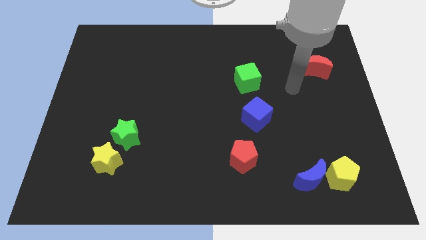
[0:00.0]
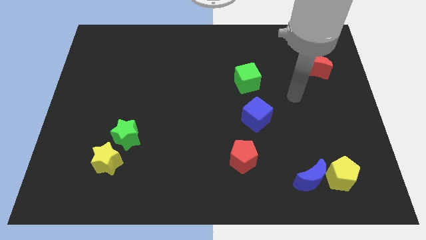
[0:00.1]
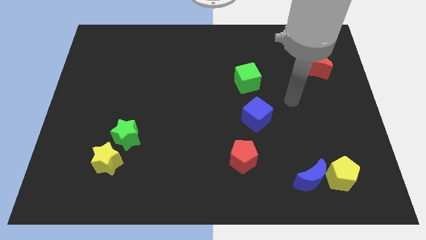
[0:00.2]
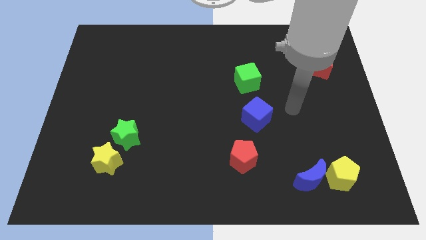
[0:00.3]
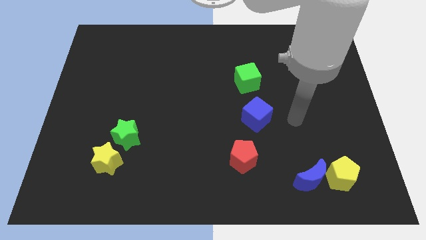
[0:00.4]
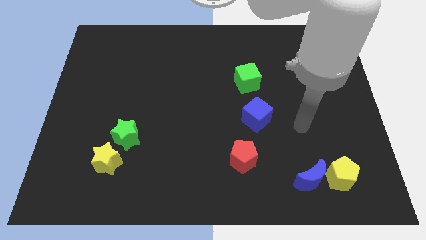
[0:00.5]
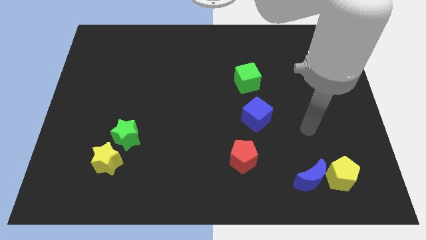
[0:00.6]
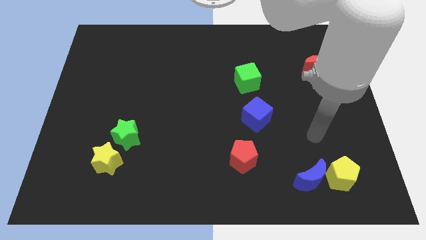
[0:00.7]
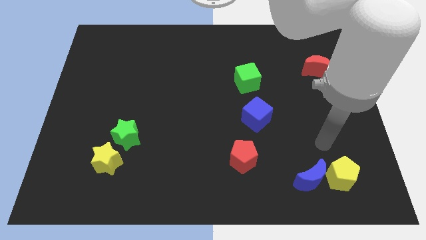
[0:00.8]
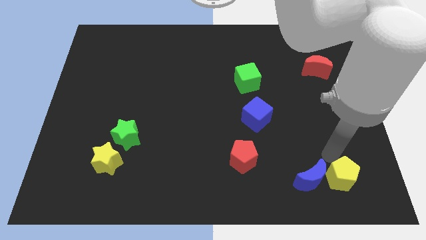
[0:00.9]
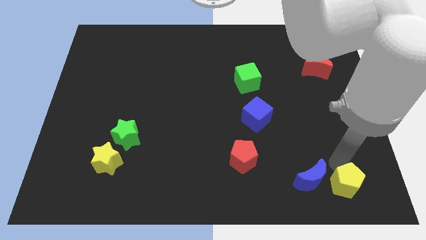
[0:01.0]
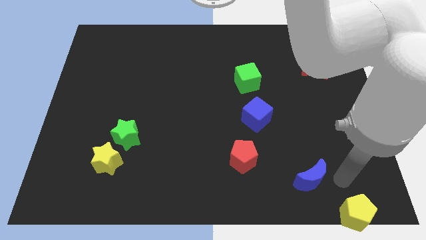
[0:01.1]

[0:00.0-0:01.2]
pull the blue moon apart from the yellow pentagon

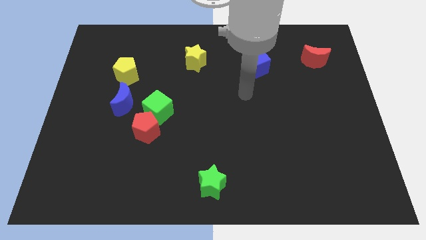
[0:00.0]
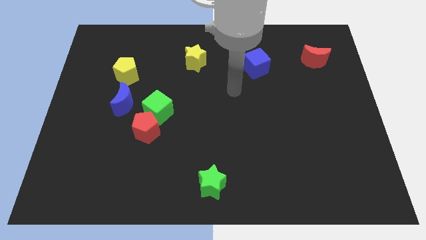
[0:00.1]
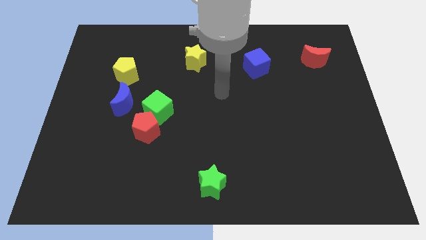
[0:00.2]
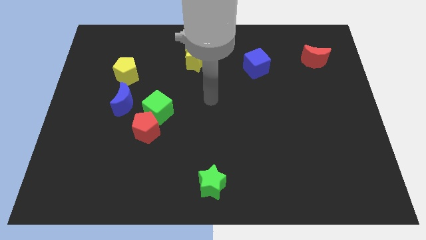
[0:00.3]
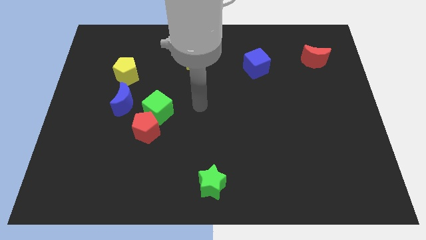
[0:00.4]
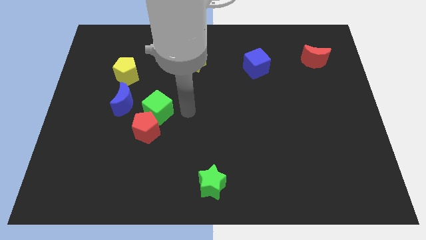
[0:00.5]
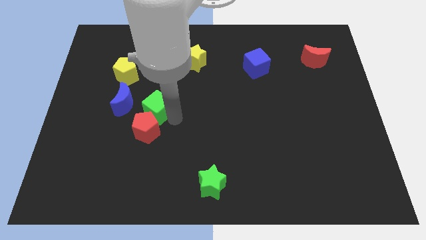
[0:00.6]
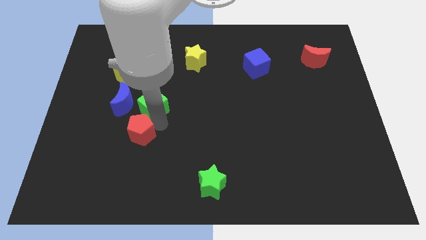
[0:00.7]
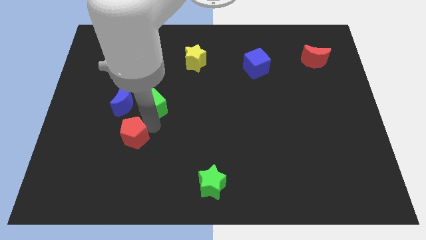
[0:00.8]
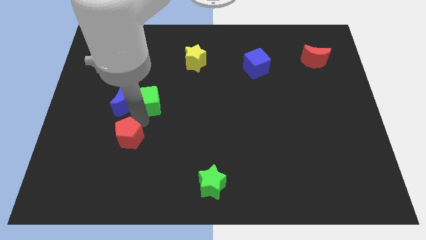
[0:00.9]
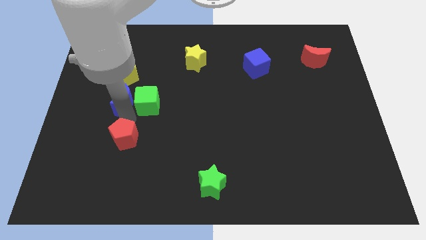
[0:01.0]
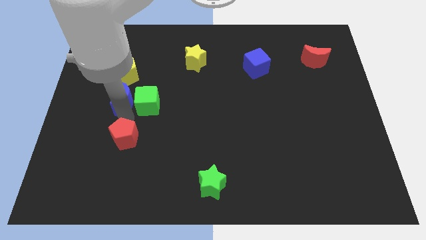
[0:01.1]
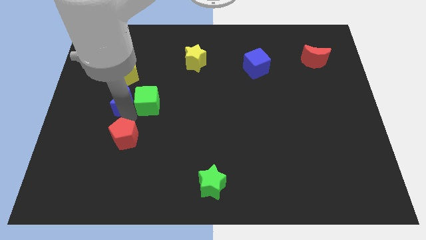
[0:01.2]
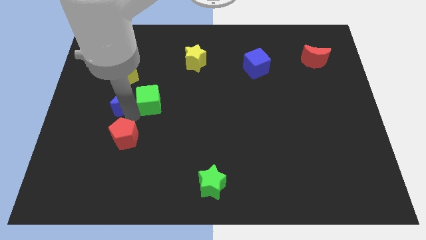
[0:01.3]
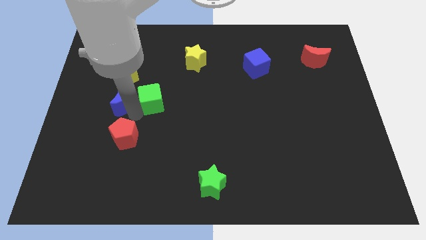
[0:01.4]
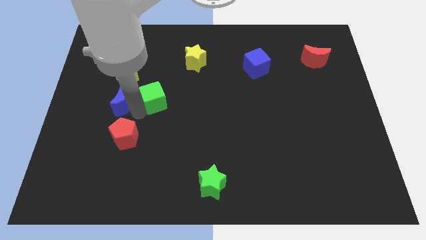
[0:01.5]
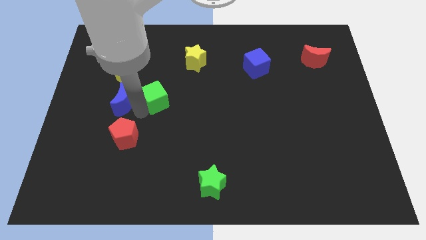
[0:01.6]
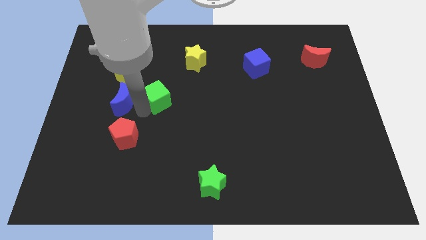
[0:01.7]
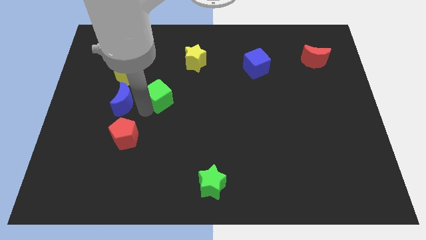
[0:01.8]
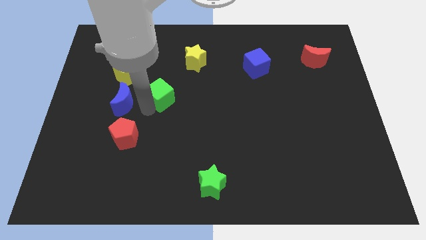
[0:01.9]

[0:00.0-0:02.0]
move the green cube away from the red pentagon and blue moon

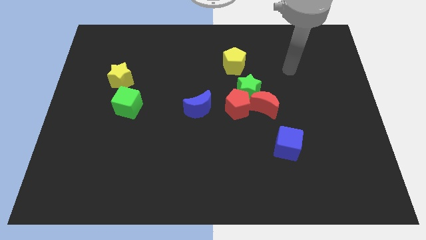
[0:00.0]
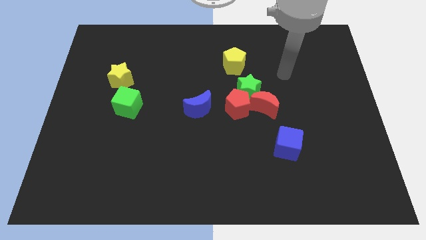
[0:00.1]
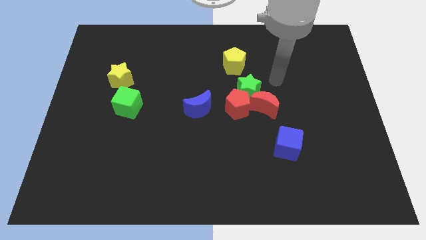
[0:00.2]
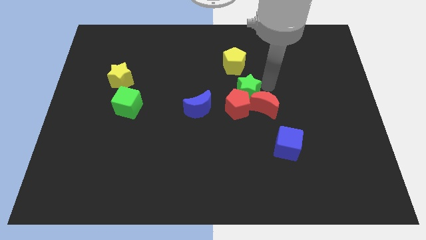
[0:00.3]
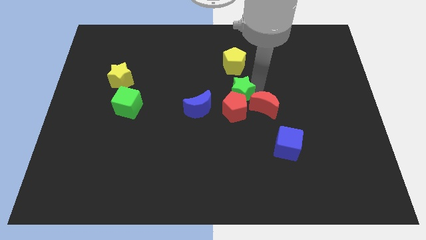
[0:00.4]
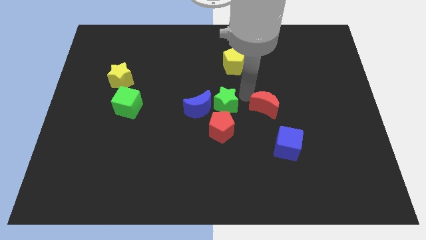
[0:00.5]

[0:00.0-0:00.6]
separate the red moon from the green star and red pentagon

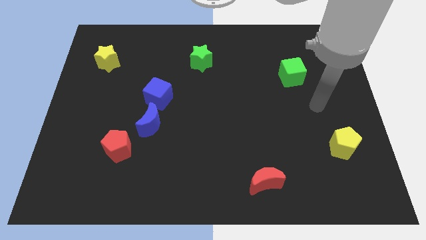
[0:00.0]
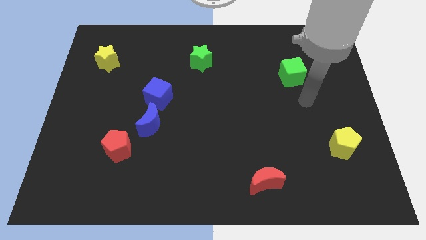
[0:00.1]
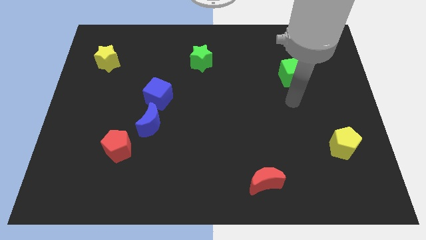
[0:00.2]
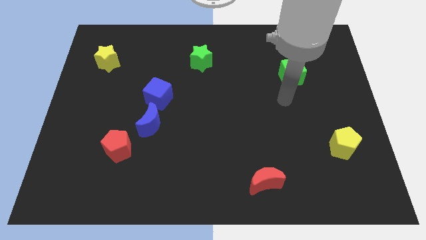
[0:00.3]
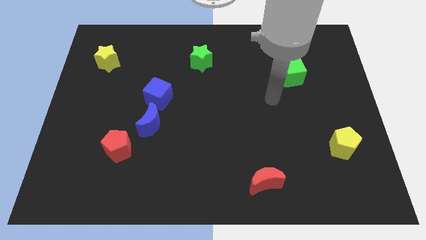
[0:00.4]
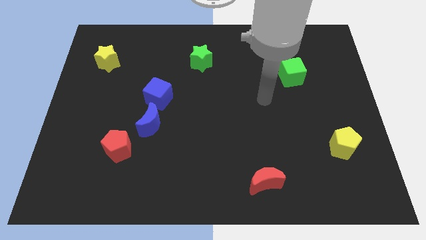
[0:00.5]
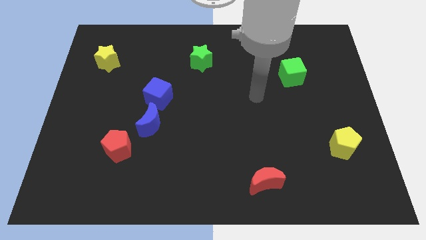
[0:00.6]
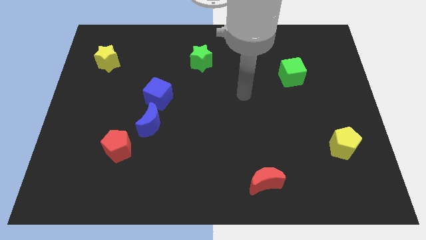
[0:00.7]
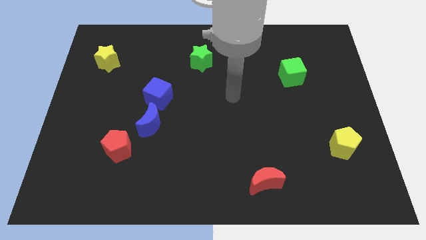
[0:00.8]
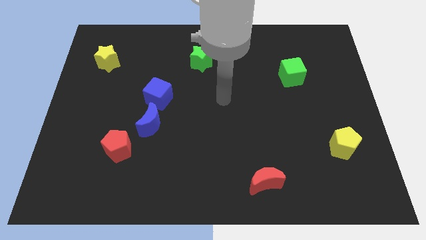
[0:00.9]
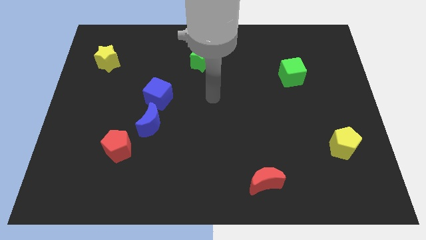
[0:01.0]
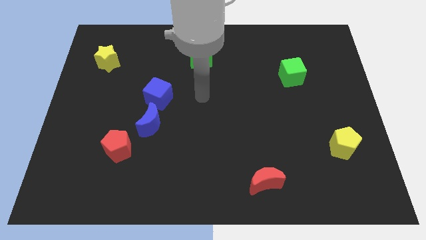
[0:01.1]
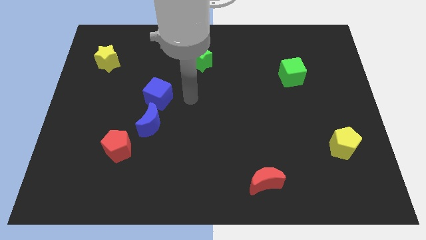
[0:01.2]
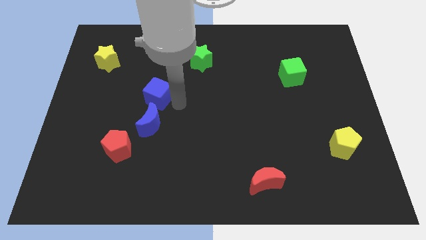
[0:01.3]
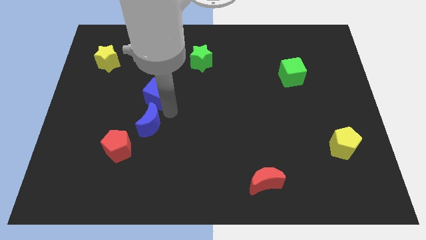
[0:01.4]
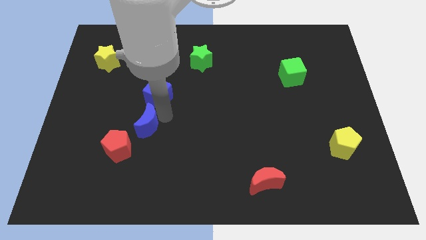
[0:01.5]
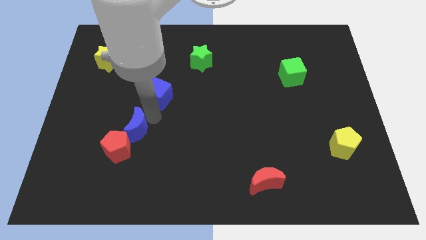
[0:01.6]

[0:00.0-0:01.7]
pull the blue cube apart from the blue moon

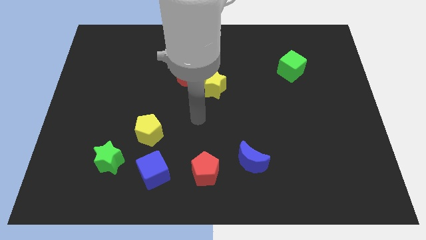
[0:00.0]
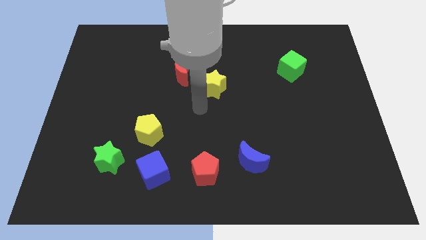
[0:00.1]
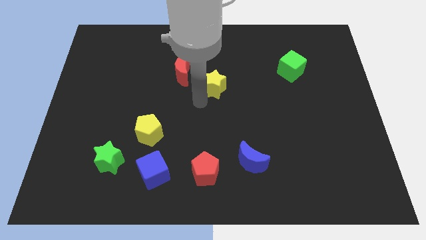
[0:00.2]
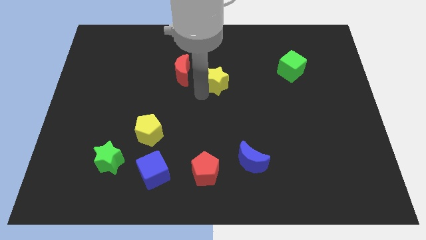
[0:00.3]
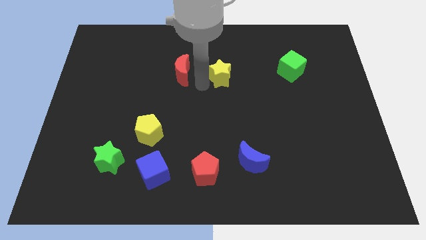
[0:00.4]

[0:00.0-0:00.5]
move the red moon away from the yellow star

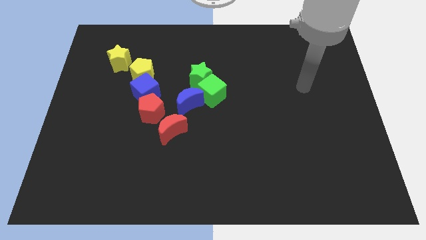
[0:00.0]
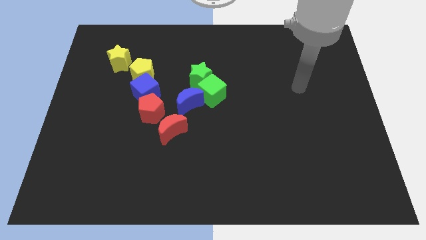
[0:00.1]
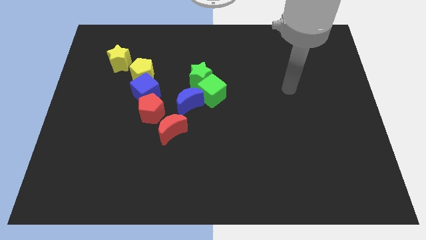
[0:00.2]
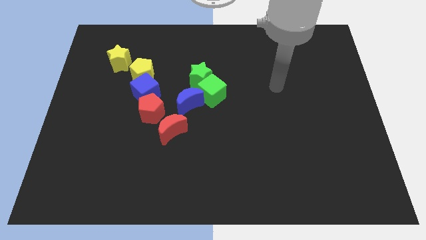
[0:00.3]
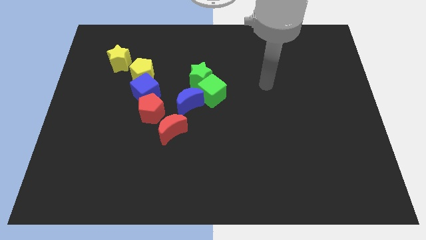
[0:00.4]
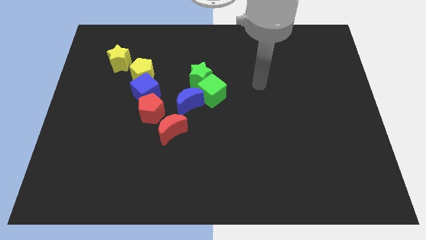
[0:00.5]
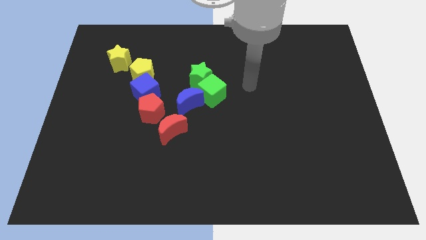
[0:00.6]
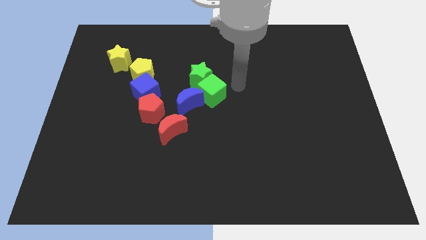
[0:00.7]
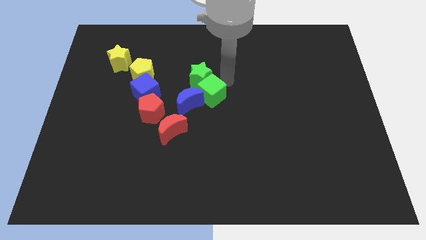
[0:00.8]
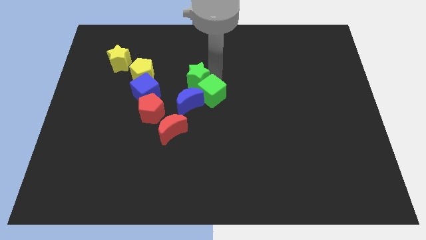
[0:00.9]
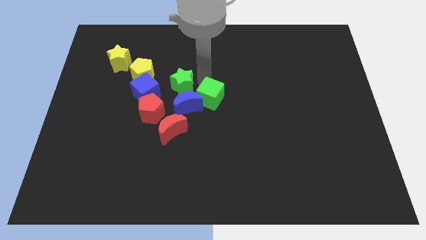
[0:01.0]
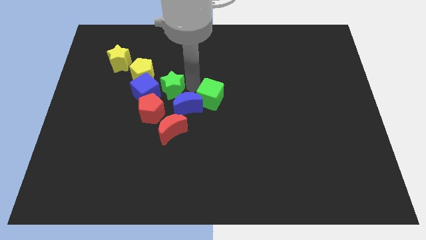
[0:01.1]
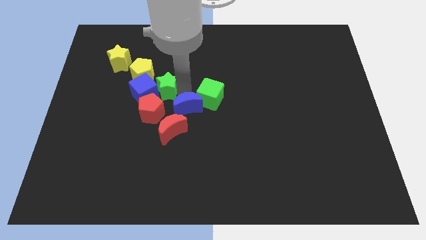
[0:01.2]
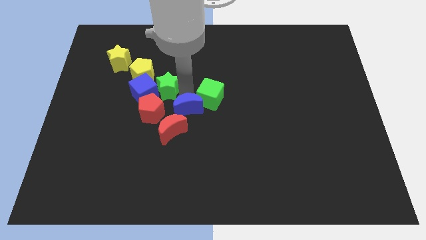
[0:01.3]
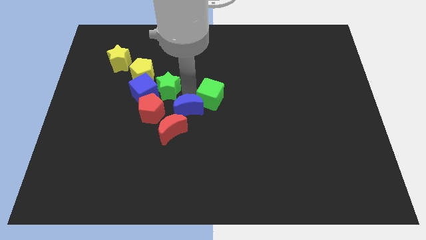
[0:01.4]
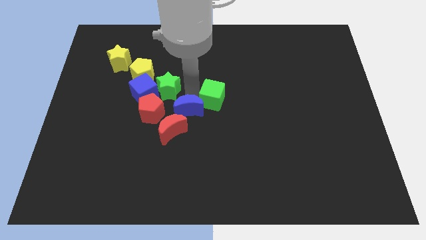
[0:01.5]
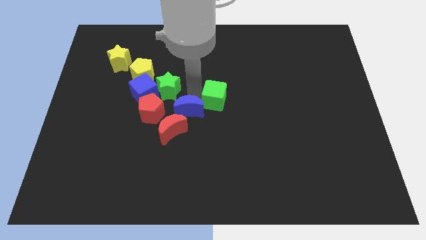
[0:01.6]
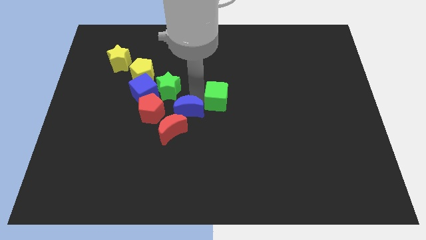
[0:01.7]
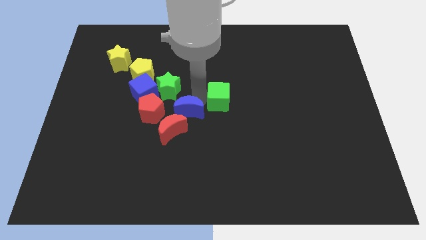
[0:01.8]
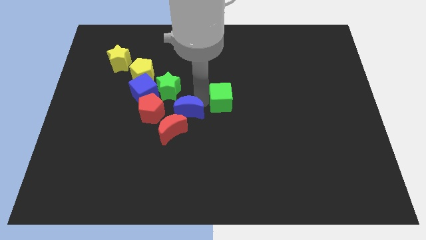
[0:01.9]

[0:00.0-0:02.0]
separate the green cube from the green star and blue moon

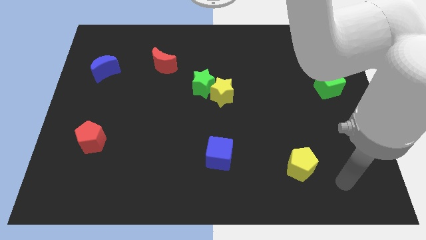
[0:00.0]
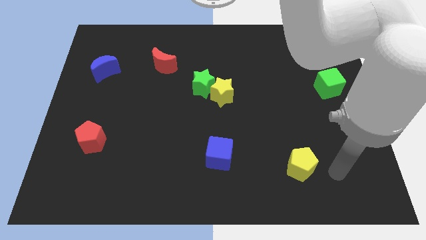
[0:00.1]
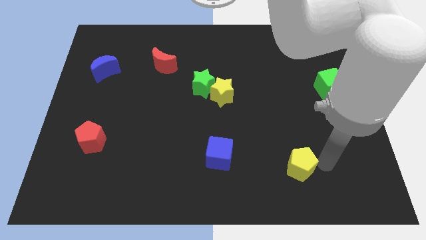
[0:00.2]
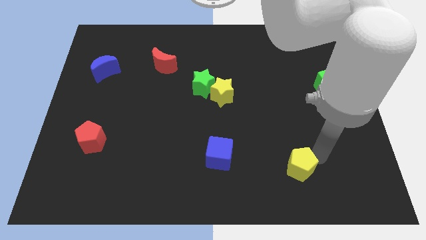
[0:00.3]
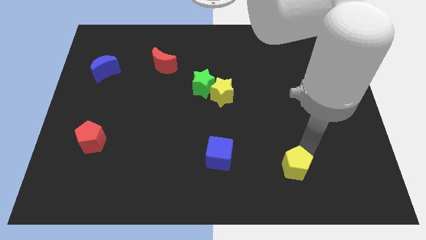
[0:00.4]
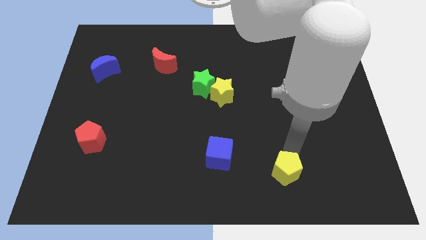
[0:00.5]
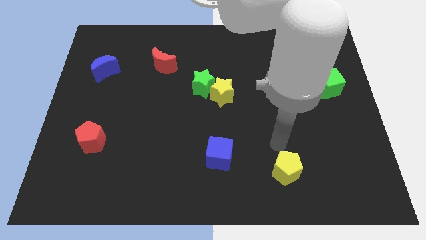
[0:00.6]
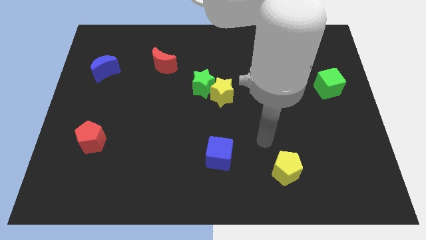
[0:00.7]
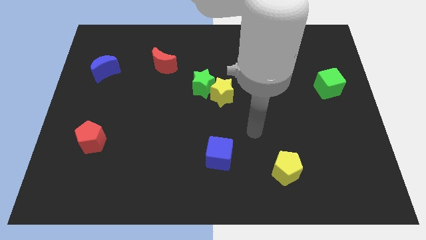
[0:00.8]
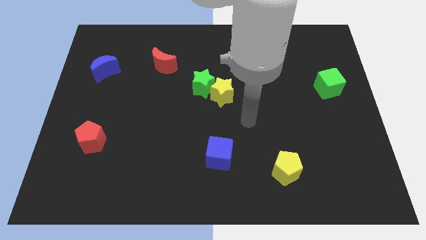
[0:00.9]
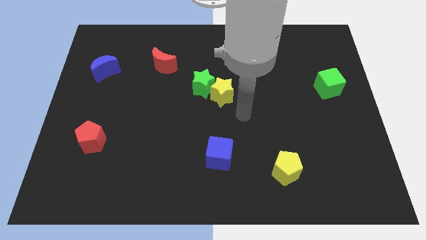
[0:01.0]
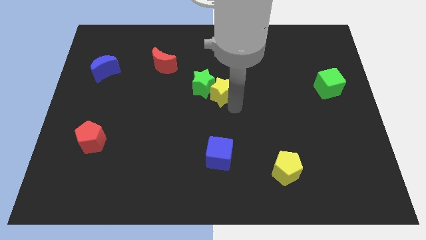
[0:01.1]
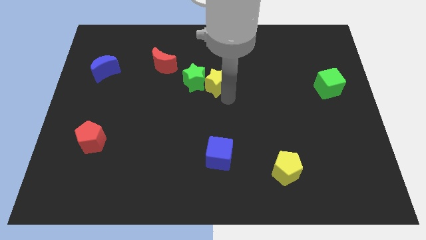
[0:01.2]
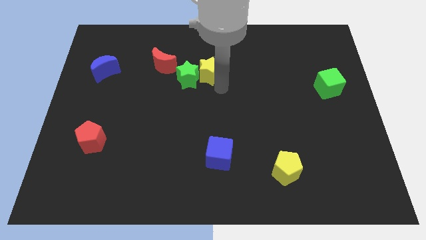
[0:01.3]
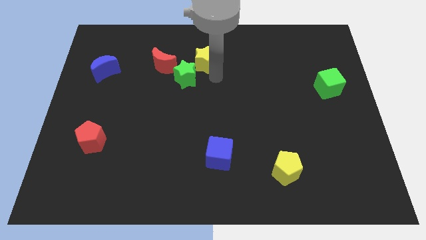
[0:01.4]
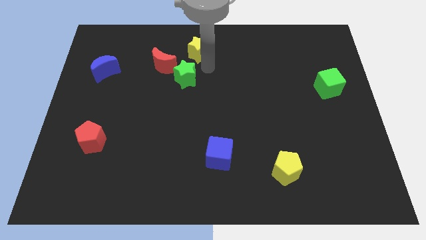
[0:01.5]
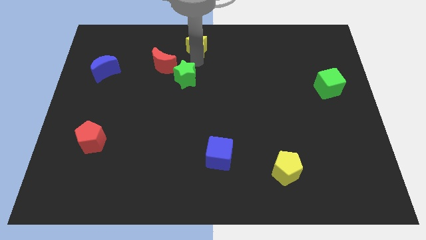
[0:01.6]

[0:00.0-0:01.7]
pull the green star apart from the yellow star
